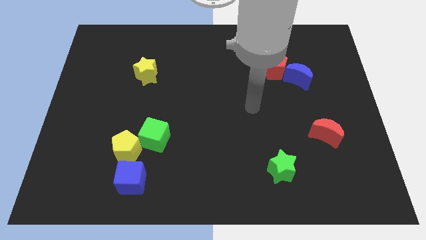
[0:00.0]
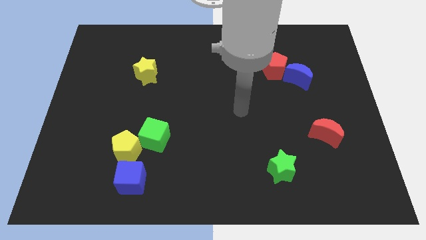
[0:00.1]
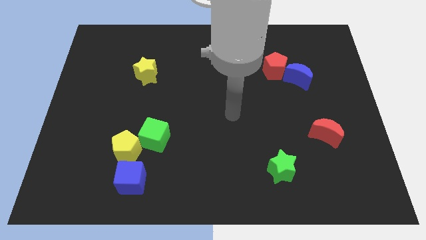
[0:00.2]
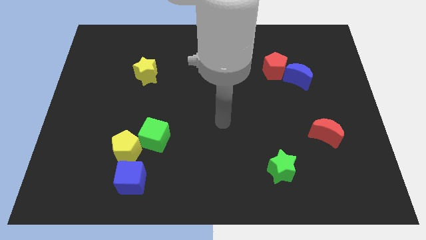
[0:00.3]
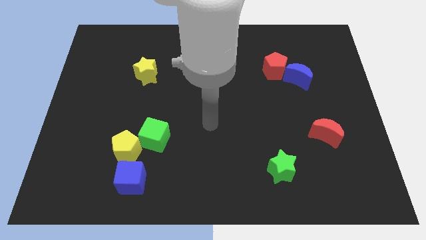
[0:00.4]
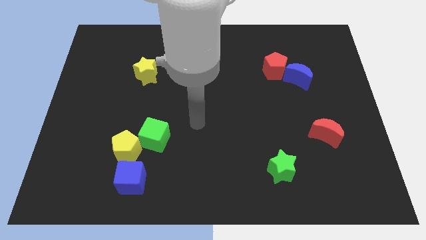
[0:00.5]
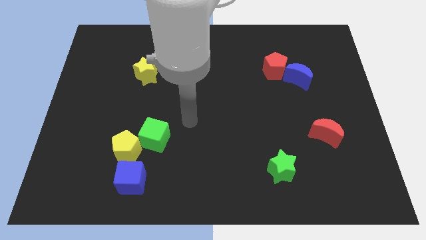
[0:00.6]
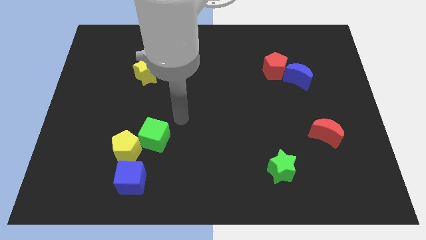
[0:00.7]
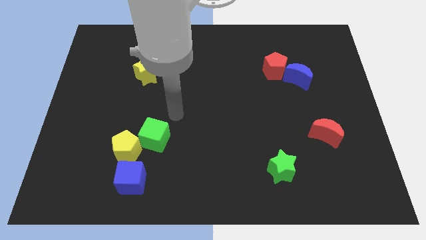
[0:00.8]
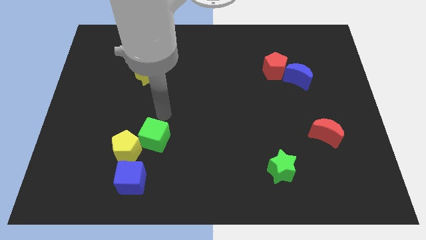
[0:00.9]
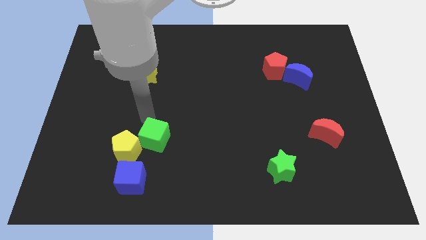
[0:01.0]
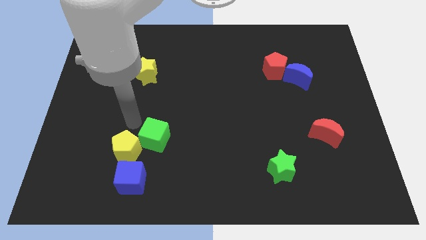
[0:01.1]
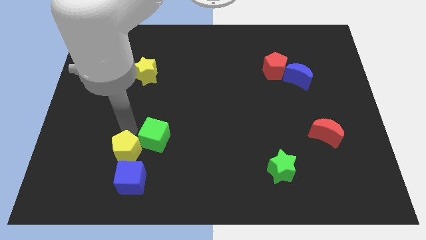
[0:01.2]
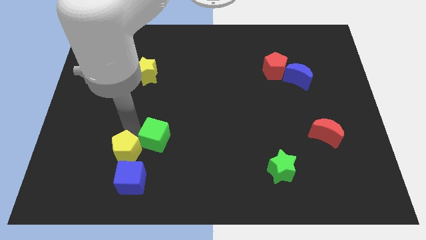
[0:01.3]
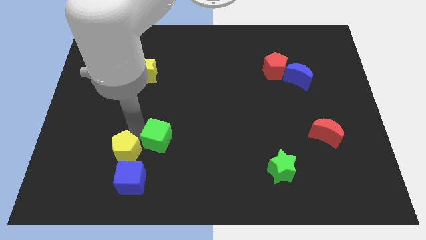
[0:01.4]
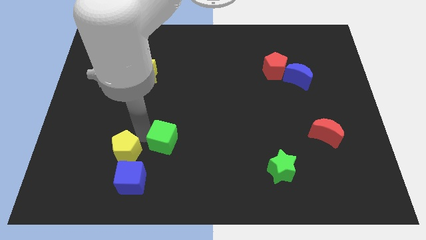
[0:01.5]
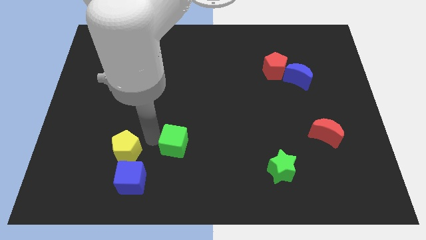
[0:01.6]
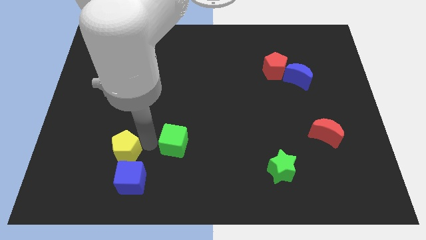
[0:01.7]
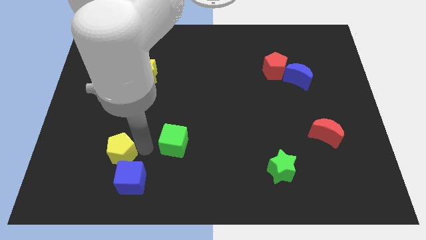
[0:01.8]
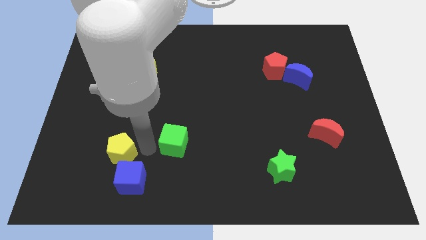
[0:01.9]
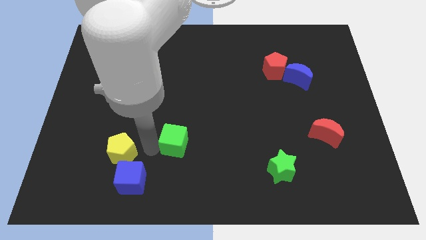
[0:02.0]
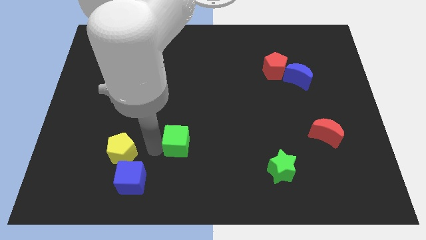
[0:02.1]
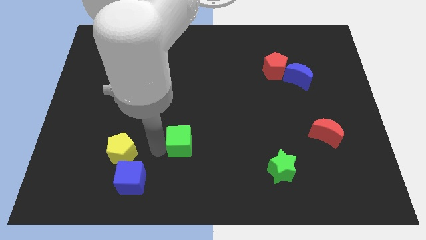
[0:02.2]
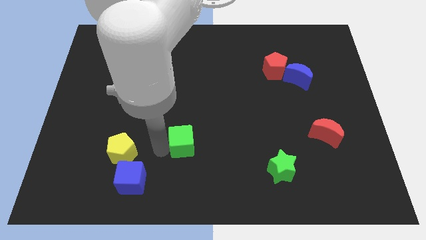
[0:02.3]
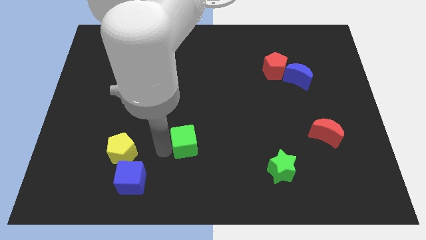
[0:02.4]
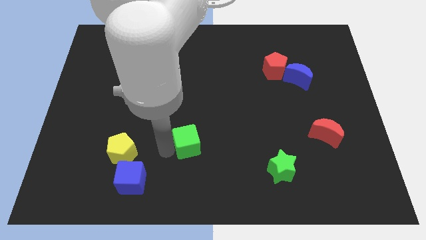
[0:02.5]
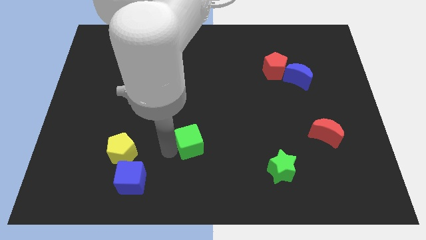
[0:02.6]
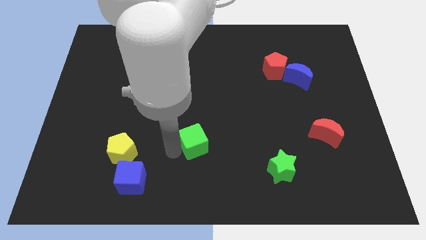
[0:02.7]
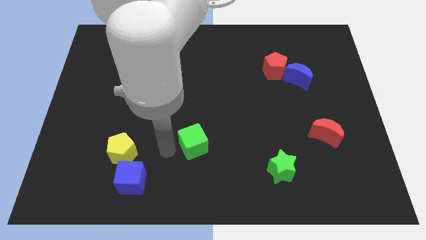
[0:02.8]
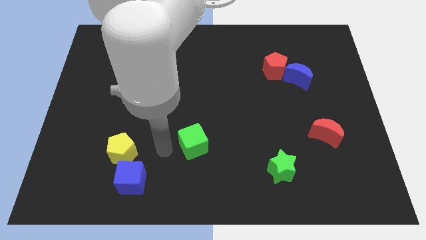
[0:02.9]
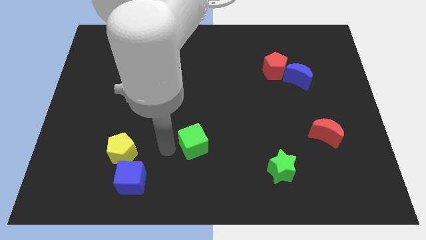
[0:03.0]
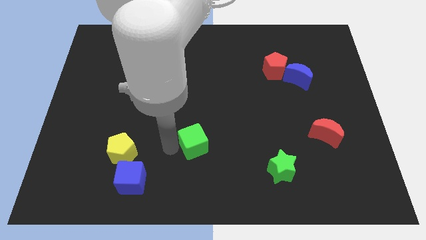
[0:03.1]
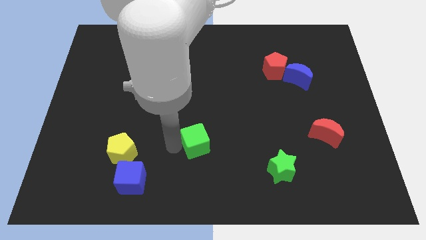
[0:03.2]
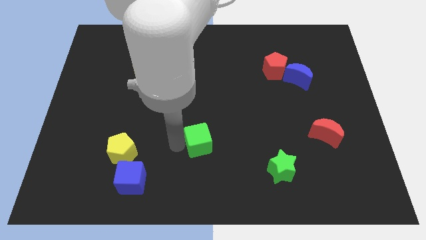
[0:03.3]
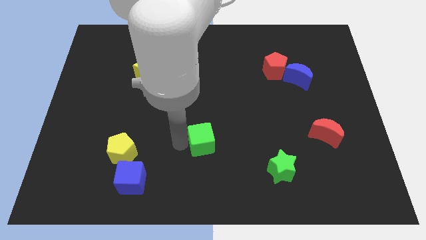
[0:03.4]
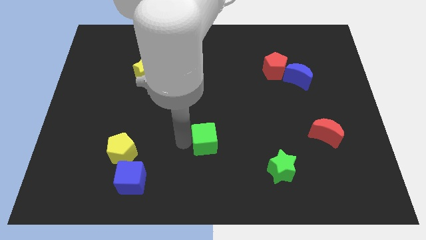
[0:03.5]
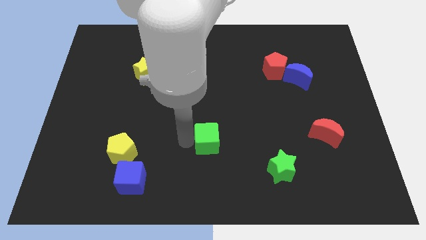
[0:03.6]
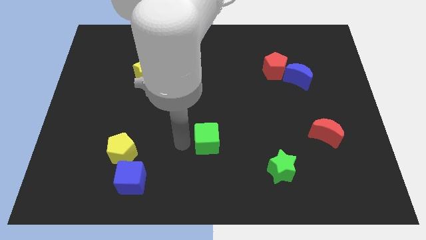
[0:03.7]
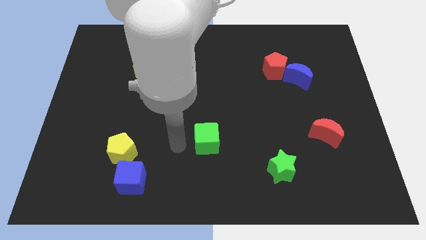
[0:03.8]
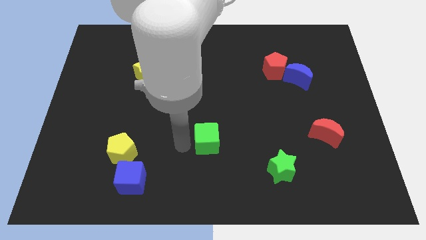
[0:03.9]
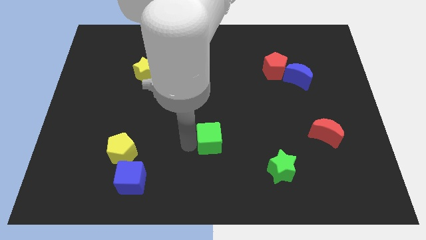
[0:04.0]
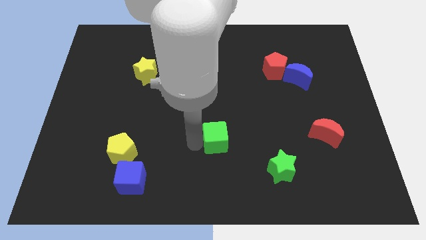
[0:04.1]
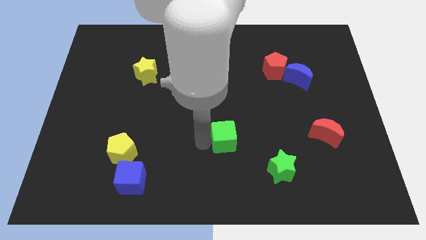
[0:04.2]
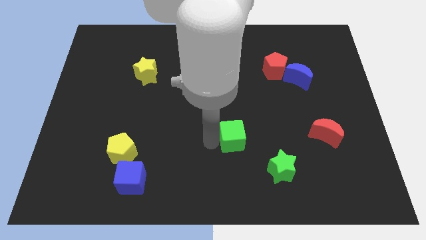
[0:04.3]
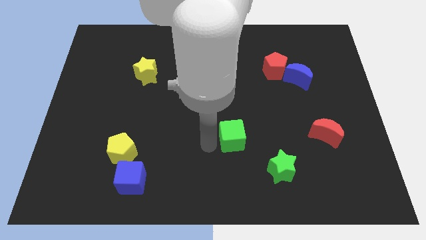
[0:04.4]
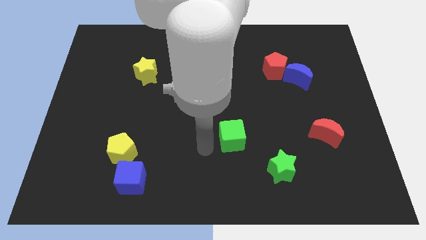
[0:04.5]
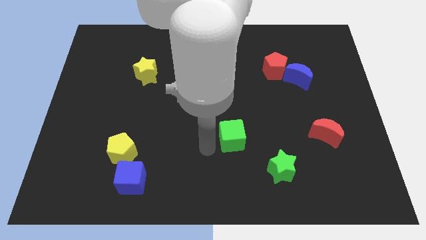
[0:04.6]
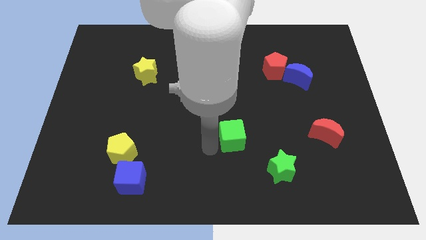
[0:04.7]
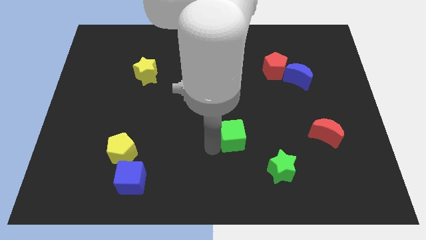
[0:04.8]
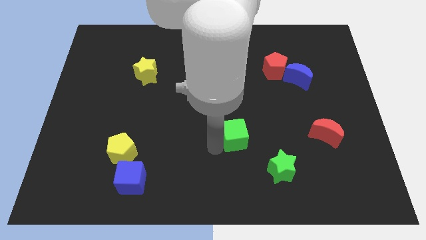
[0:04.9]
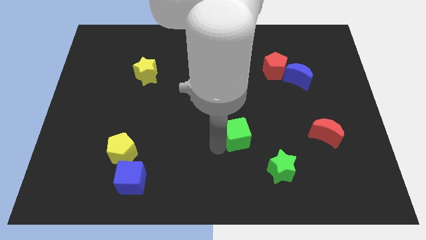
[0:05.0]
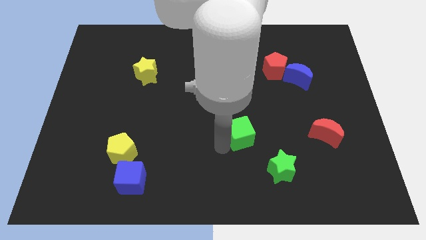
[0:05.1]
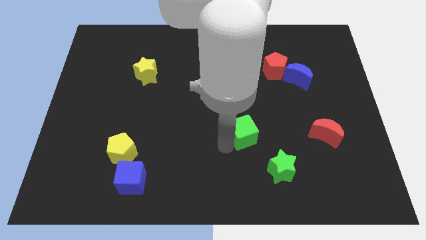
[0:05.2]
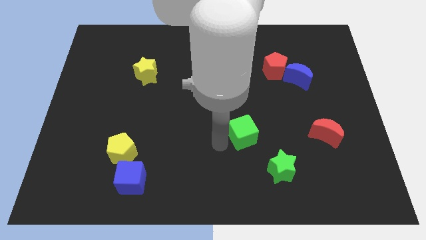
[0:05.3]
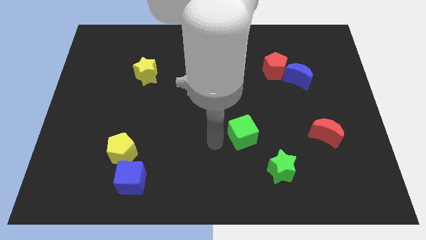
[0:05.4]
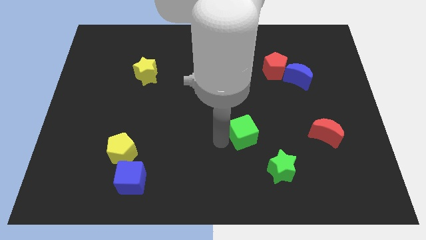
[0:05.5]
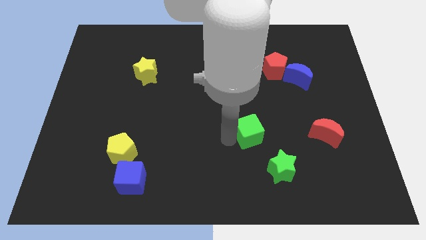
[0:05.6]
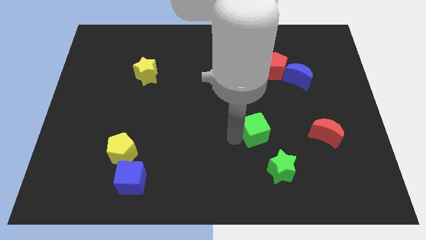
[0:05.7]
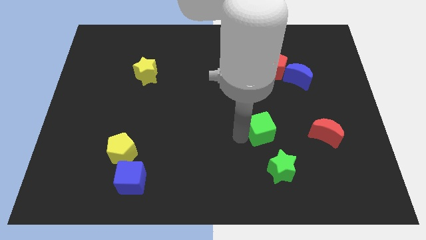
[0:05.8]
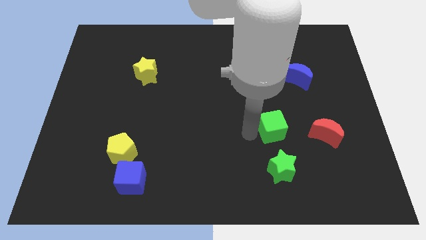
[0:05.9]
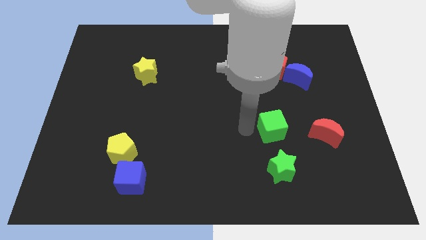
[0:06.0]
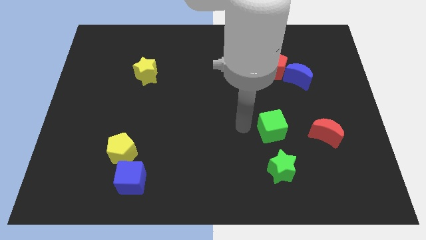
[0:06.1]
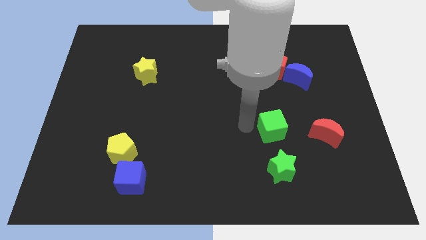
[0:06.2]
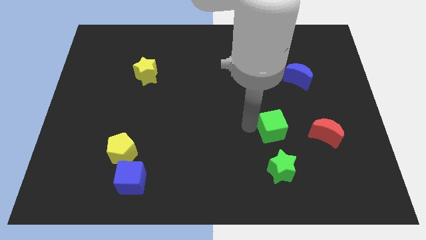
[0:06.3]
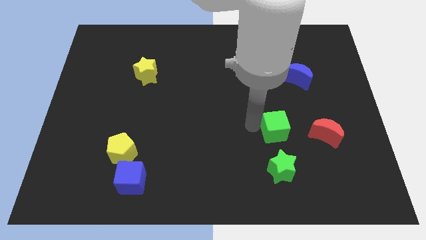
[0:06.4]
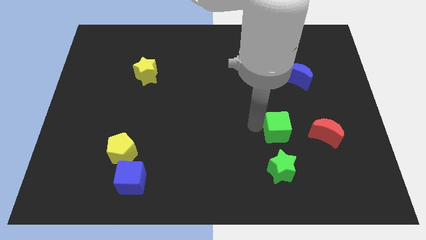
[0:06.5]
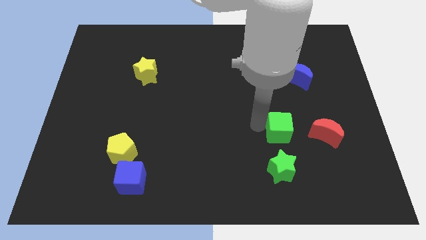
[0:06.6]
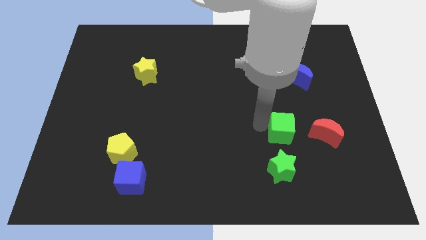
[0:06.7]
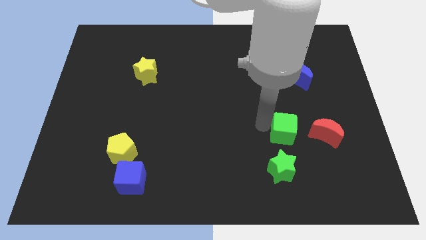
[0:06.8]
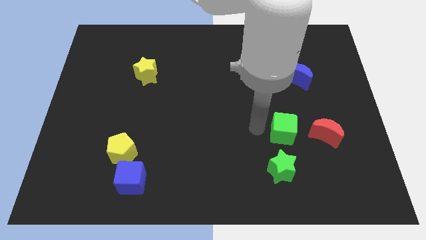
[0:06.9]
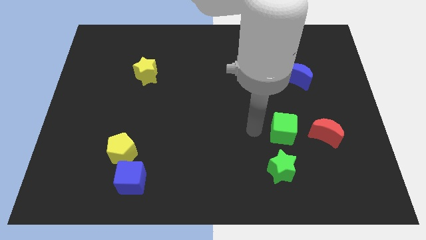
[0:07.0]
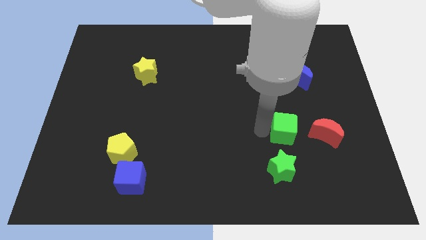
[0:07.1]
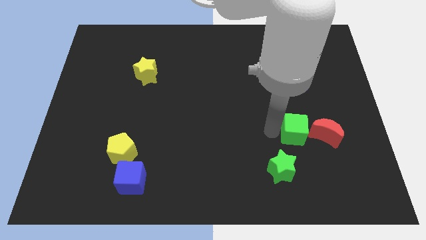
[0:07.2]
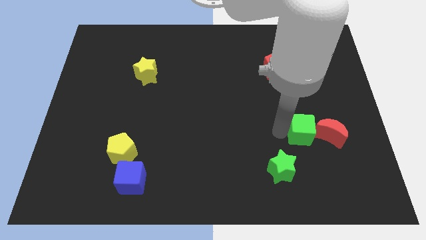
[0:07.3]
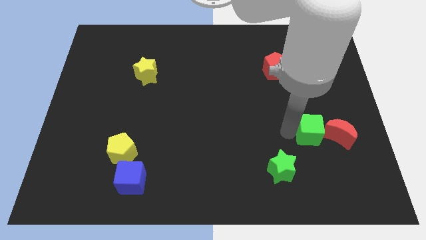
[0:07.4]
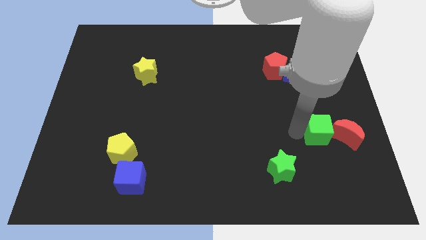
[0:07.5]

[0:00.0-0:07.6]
put the green cube close to the red moon

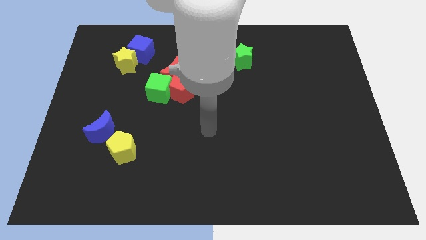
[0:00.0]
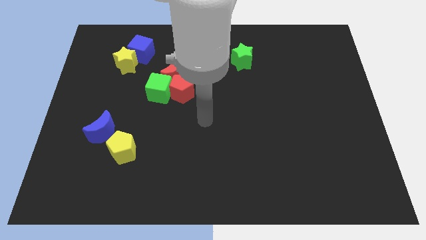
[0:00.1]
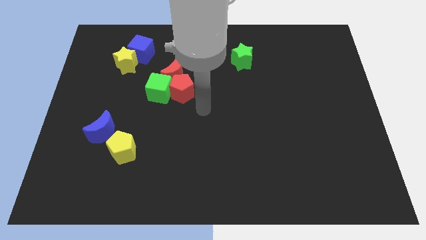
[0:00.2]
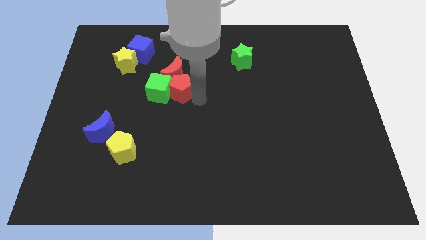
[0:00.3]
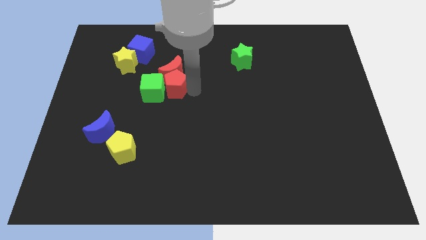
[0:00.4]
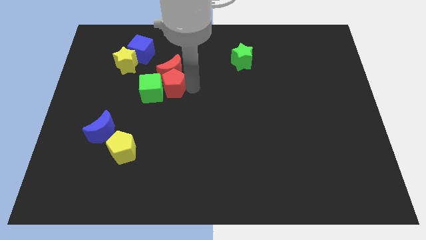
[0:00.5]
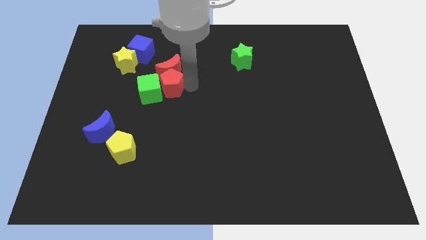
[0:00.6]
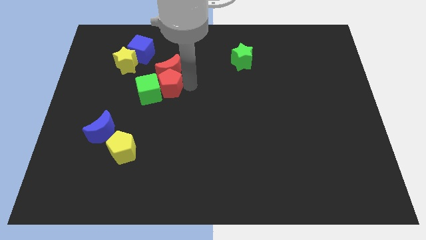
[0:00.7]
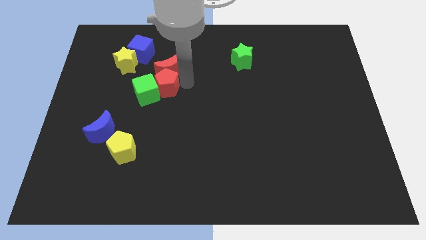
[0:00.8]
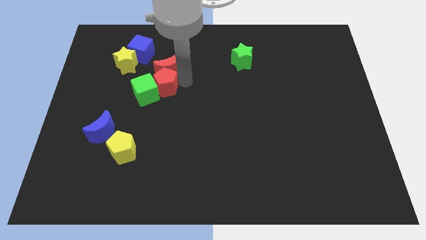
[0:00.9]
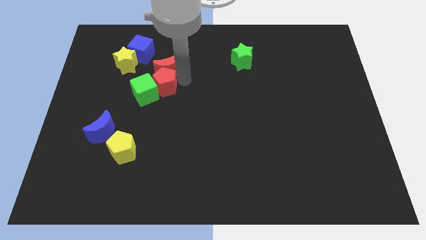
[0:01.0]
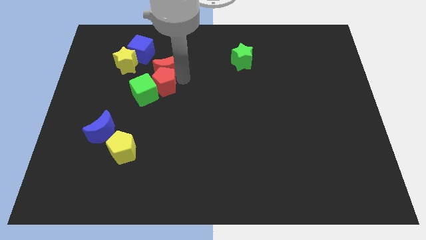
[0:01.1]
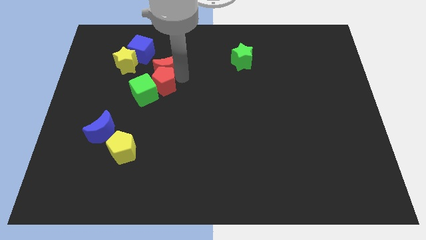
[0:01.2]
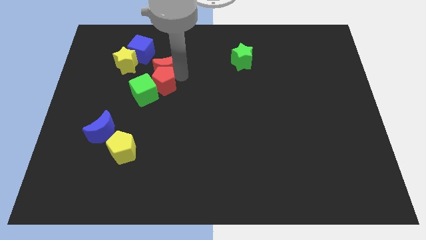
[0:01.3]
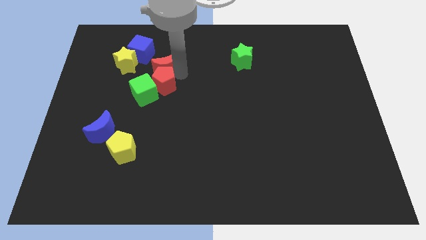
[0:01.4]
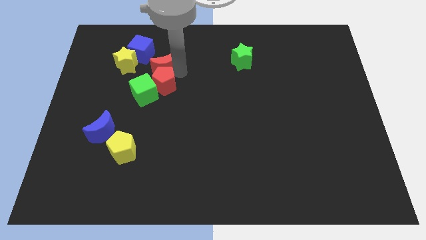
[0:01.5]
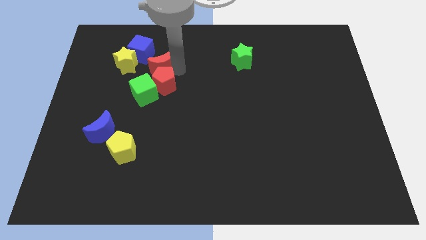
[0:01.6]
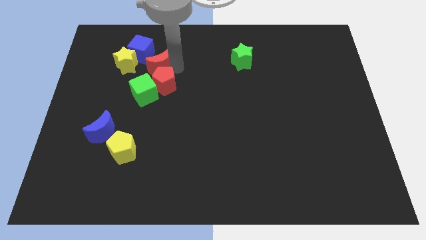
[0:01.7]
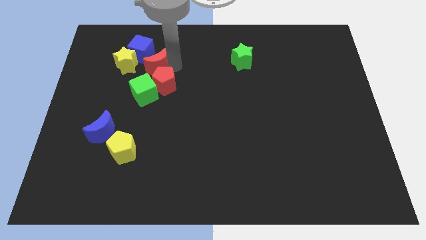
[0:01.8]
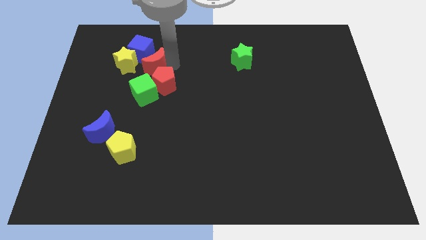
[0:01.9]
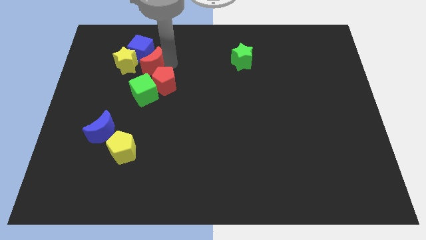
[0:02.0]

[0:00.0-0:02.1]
move the red moon towards the blue cube
